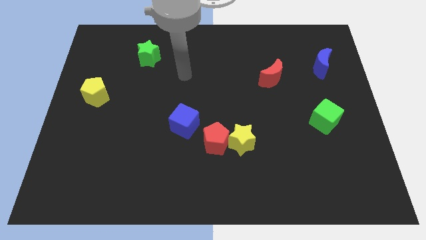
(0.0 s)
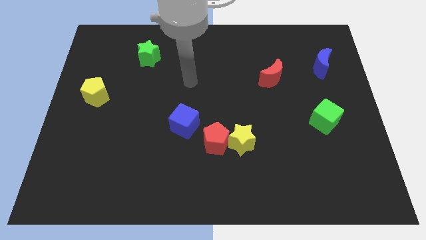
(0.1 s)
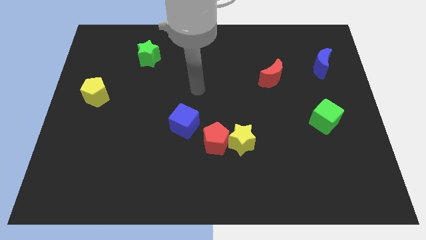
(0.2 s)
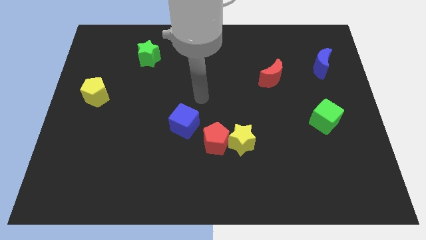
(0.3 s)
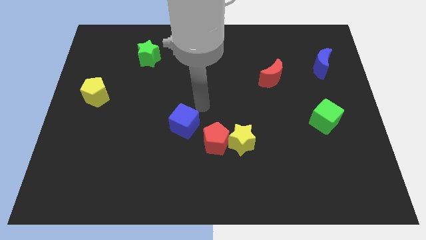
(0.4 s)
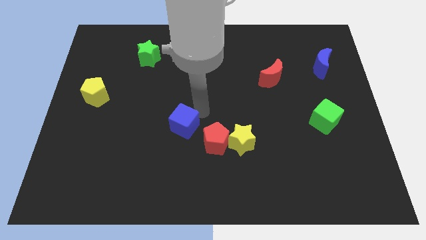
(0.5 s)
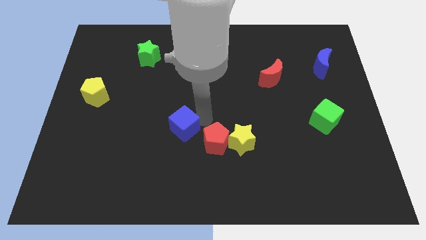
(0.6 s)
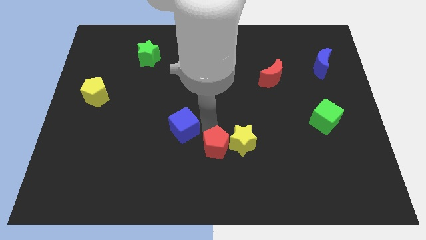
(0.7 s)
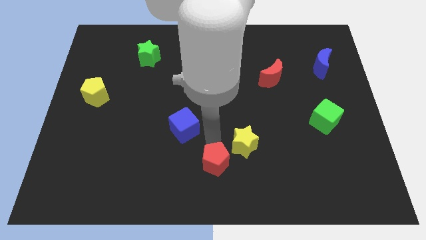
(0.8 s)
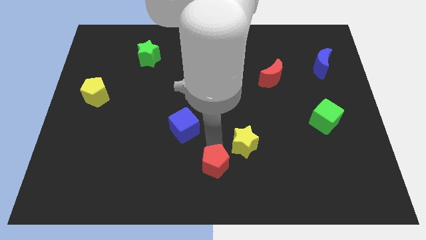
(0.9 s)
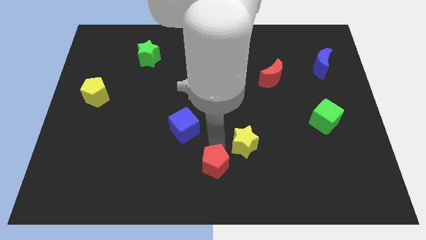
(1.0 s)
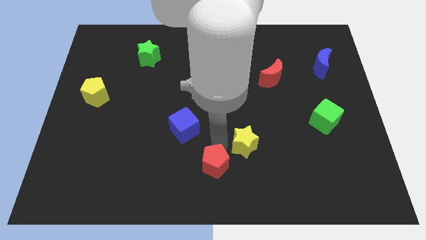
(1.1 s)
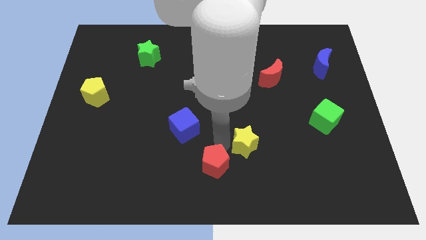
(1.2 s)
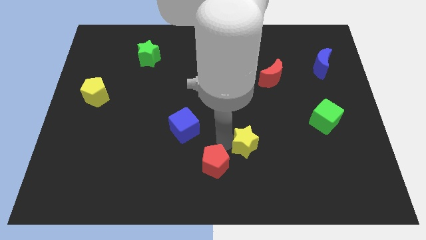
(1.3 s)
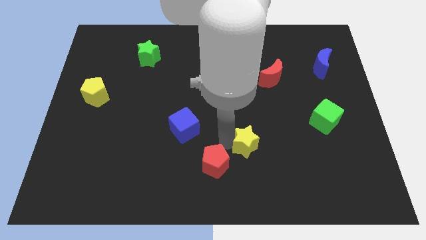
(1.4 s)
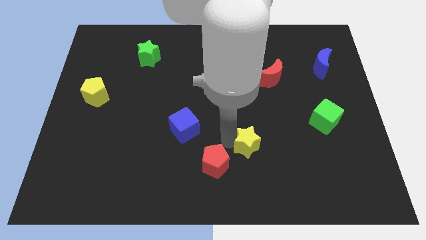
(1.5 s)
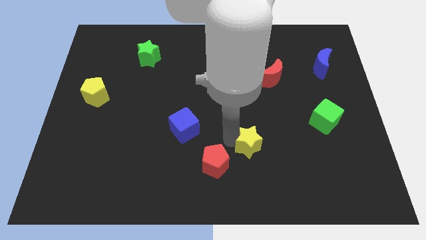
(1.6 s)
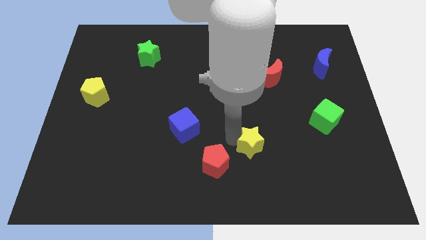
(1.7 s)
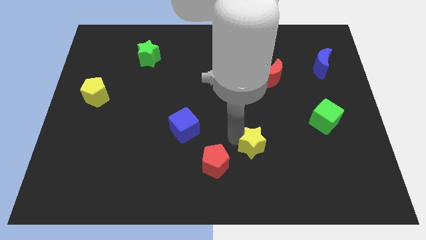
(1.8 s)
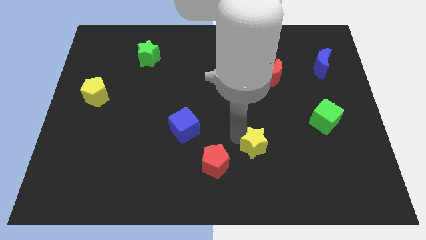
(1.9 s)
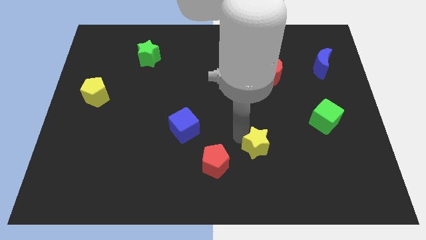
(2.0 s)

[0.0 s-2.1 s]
separate the yellow star from the red pentagon

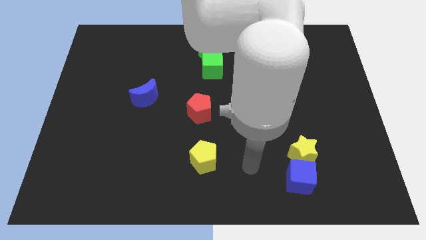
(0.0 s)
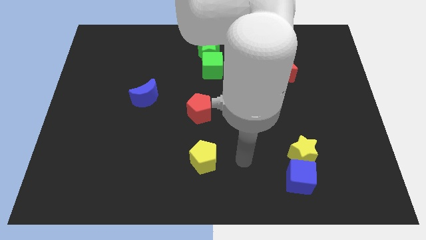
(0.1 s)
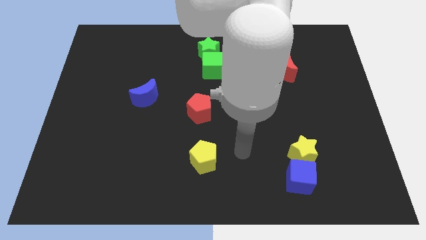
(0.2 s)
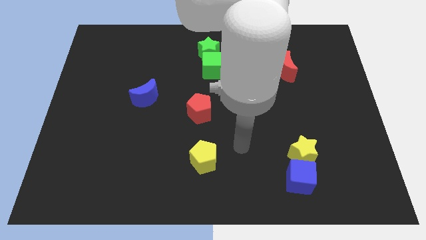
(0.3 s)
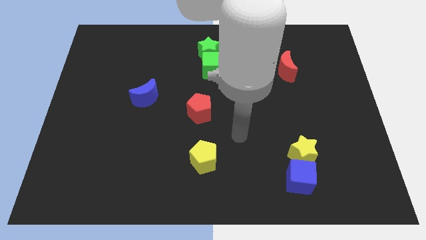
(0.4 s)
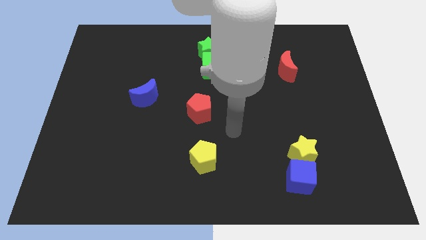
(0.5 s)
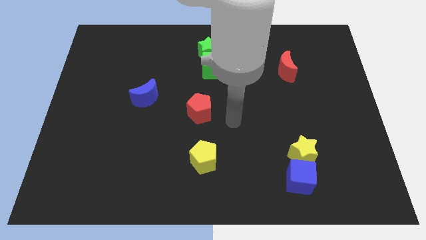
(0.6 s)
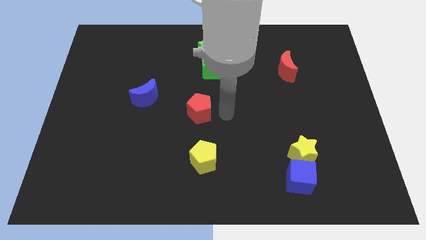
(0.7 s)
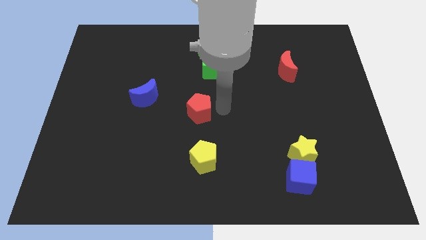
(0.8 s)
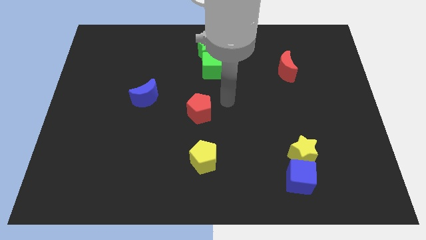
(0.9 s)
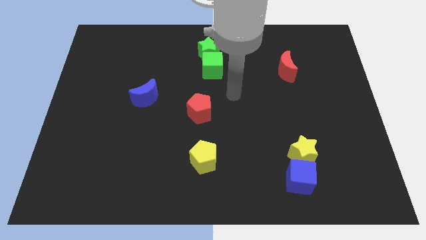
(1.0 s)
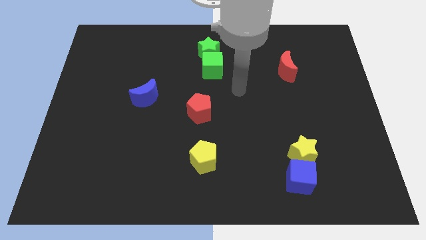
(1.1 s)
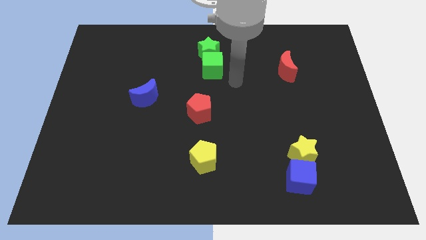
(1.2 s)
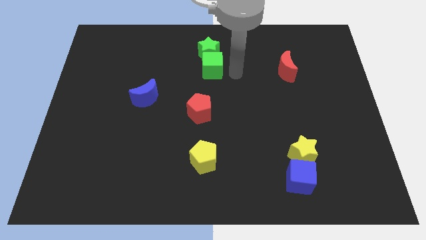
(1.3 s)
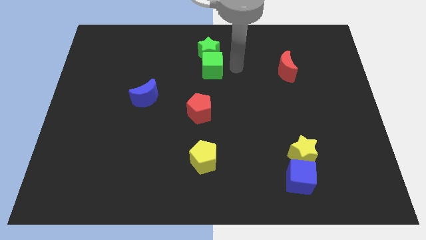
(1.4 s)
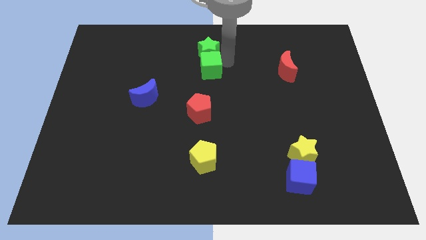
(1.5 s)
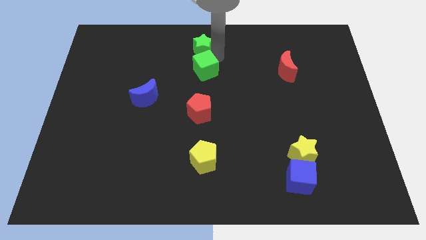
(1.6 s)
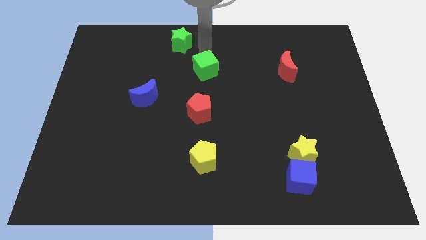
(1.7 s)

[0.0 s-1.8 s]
move the green cube away from the green star

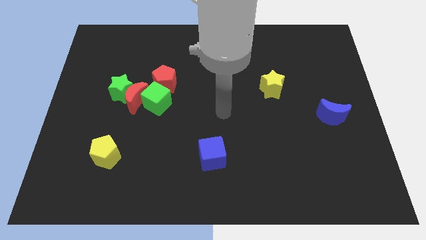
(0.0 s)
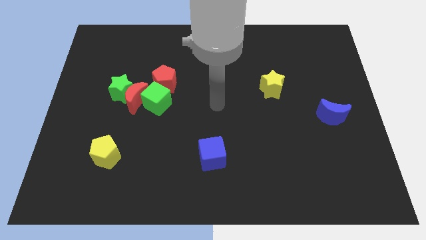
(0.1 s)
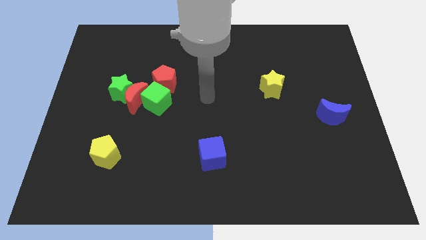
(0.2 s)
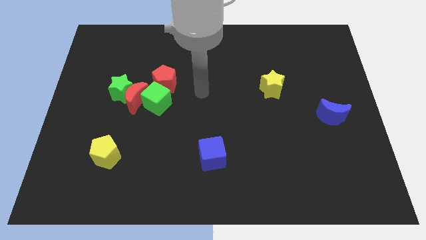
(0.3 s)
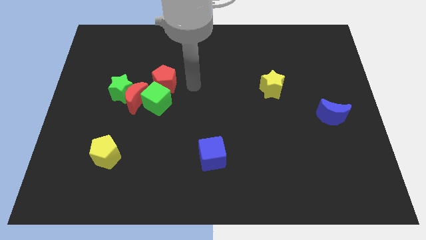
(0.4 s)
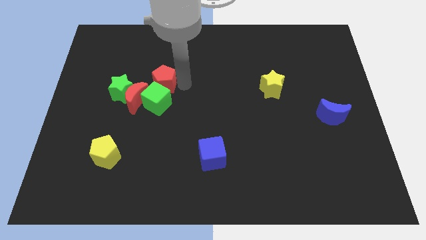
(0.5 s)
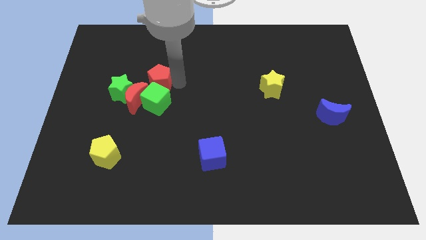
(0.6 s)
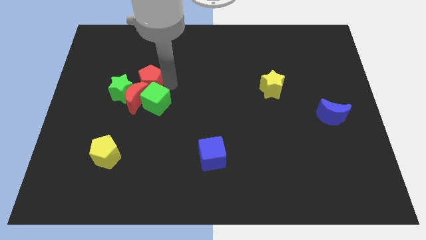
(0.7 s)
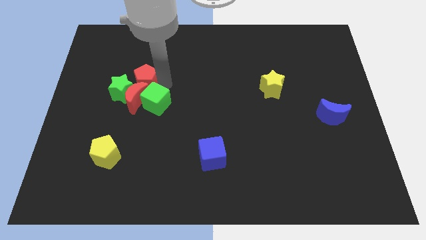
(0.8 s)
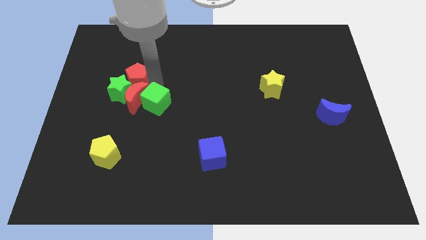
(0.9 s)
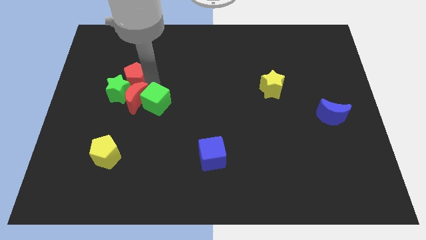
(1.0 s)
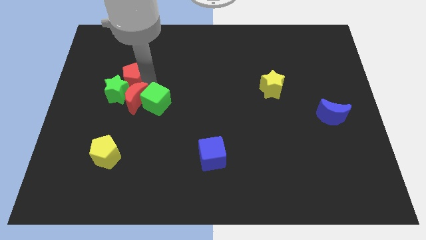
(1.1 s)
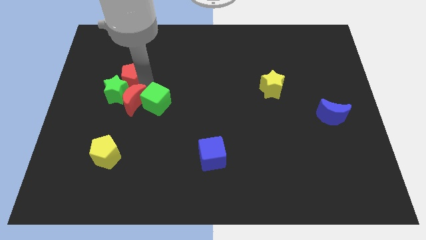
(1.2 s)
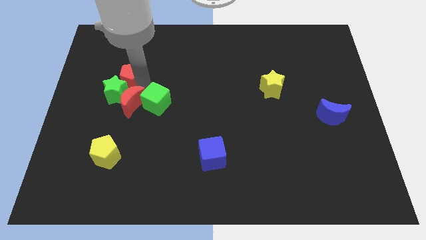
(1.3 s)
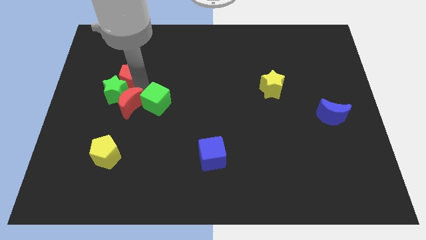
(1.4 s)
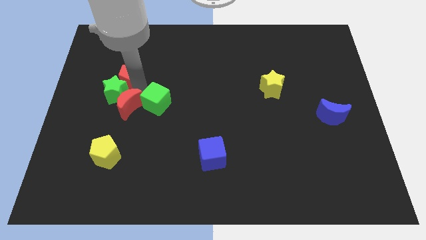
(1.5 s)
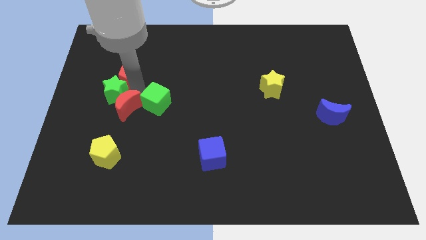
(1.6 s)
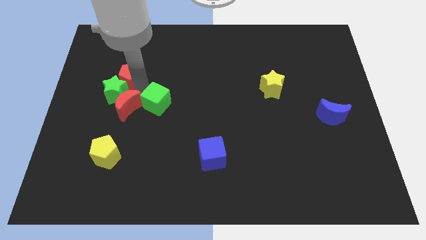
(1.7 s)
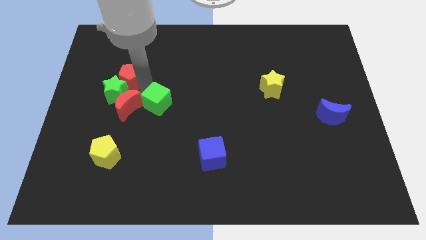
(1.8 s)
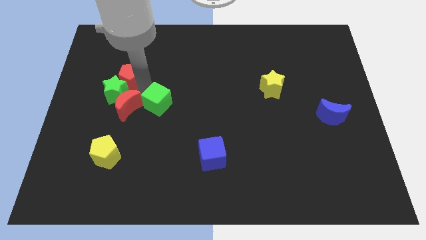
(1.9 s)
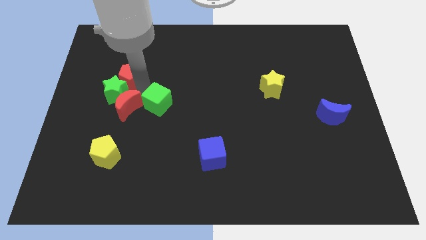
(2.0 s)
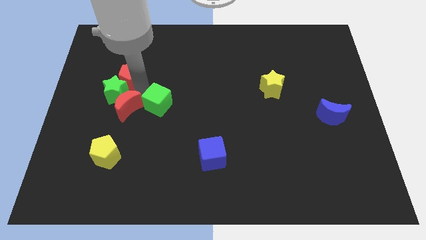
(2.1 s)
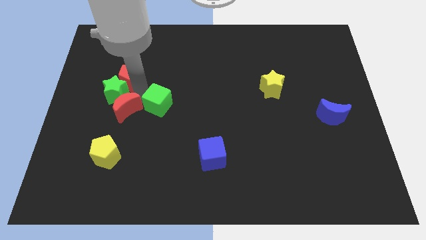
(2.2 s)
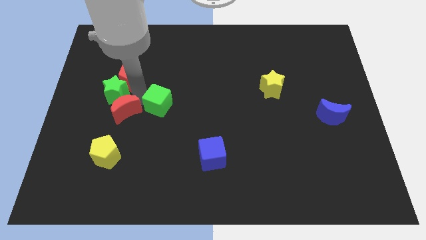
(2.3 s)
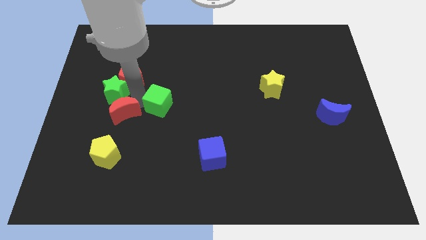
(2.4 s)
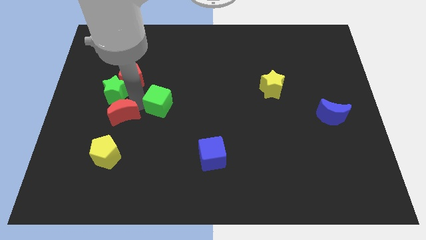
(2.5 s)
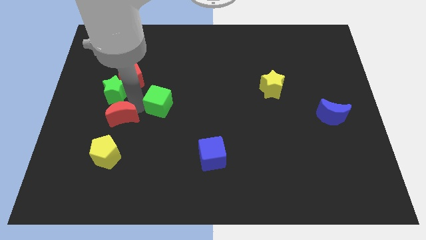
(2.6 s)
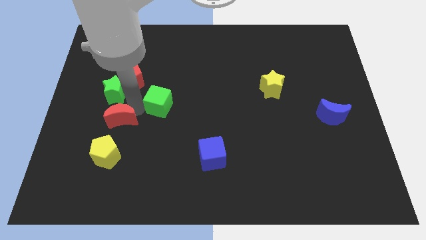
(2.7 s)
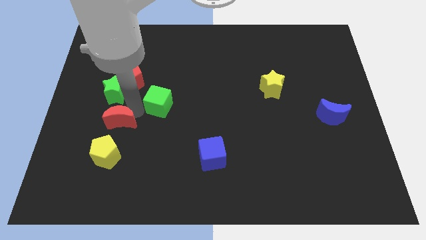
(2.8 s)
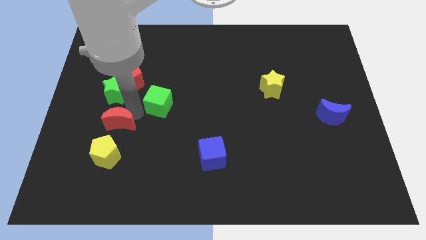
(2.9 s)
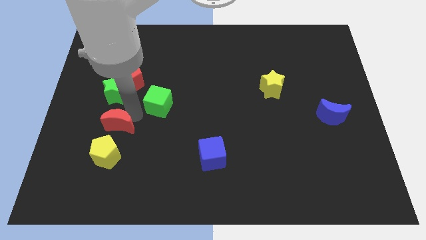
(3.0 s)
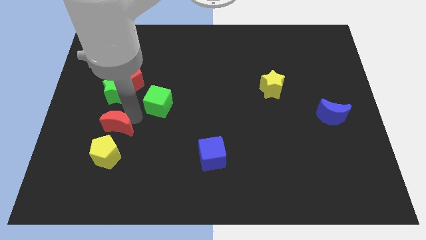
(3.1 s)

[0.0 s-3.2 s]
separate the red moon from the group

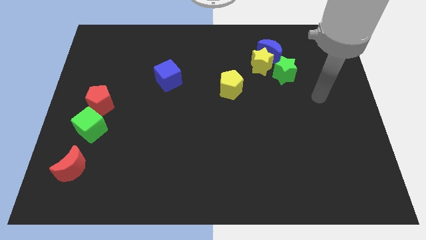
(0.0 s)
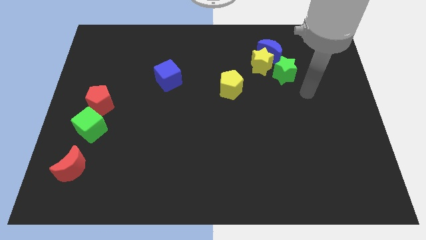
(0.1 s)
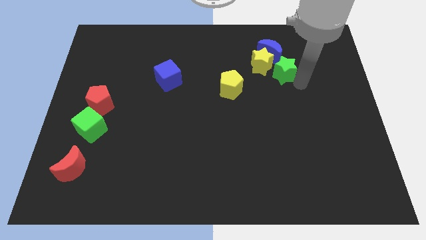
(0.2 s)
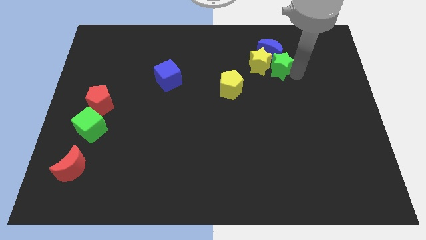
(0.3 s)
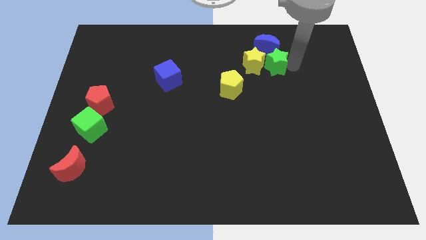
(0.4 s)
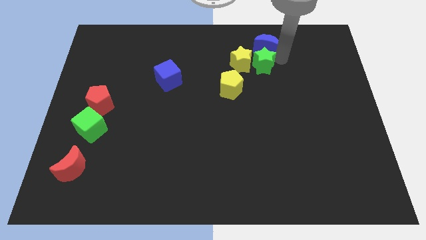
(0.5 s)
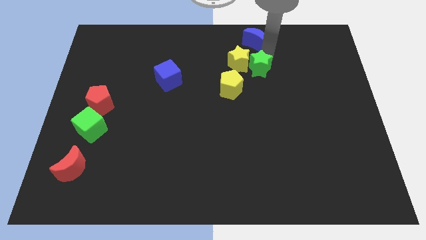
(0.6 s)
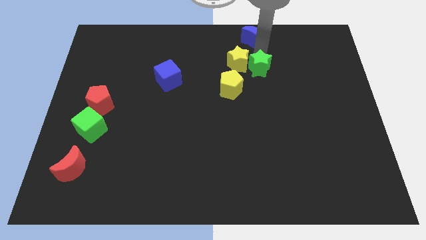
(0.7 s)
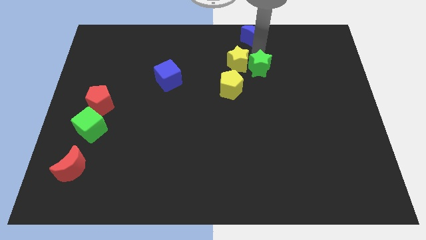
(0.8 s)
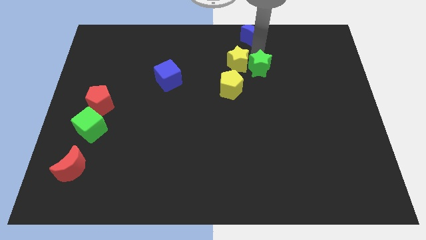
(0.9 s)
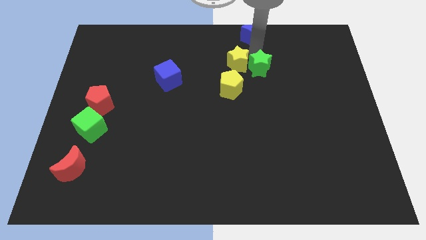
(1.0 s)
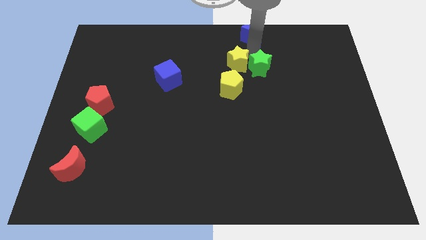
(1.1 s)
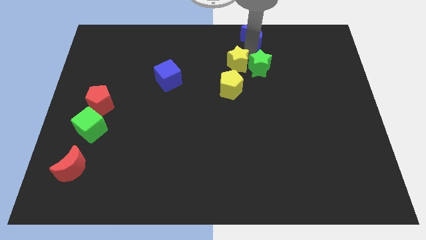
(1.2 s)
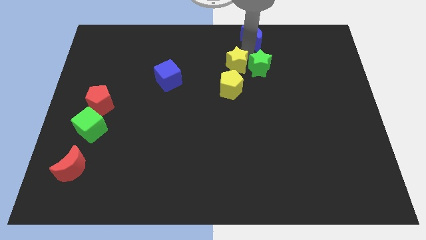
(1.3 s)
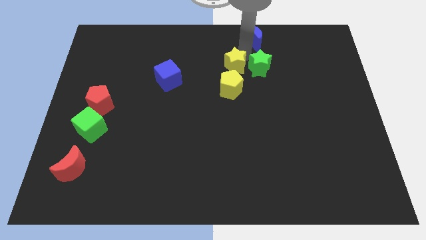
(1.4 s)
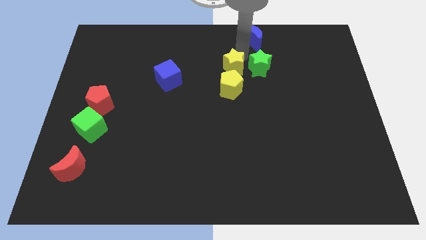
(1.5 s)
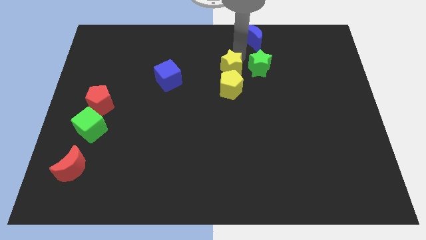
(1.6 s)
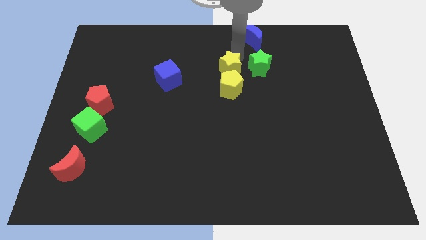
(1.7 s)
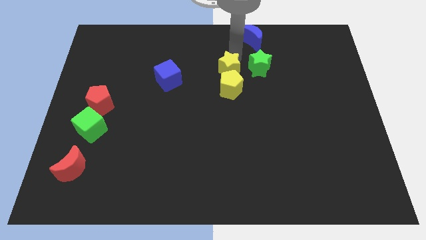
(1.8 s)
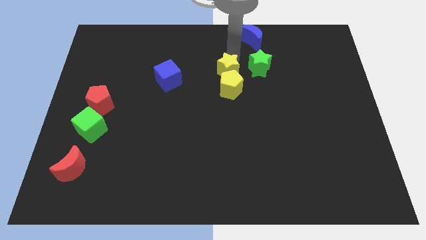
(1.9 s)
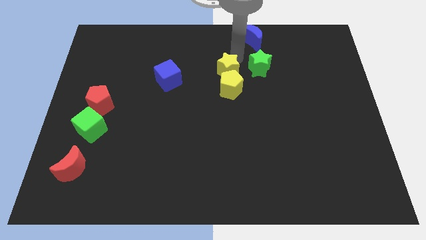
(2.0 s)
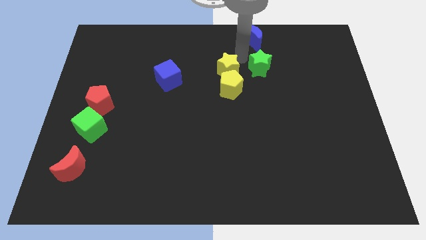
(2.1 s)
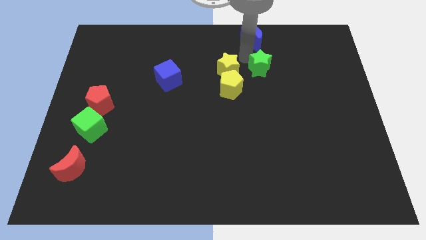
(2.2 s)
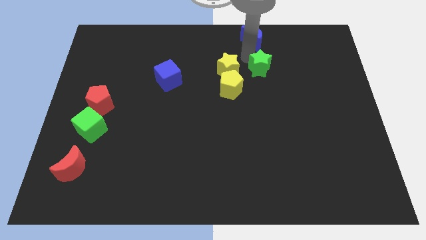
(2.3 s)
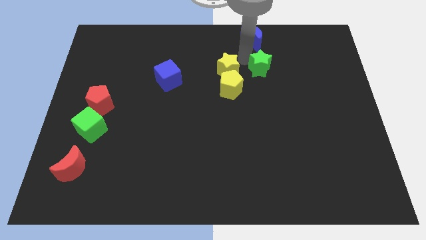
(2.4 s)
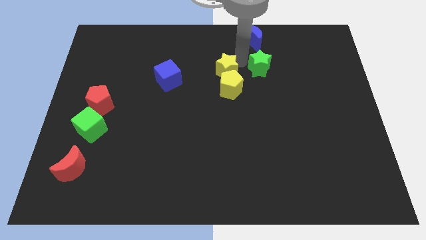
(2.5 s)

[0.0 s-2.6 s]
separate the yellow star from the blue moon and green star
